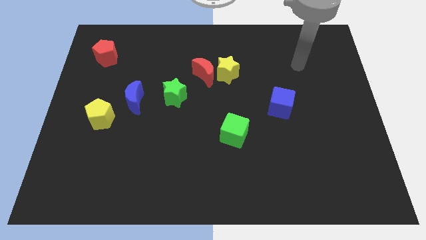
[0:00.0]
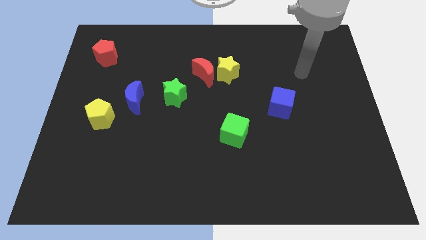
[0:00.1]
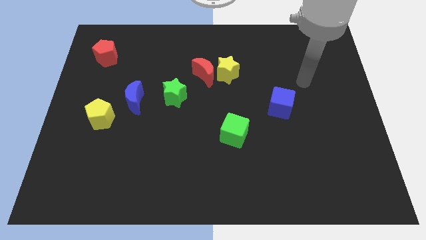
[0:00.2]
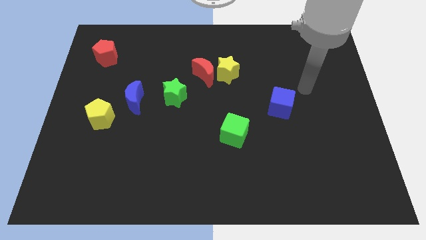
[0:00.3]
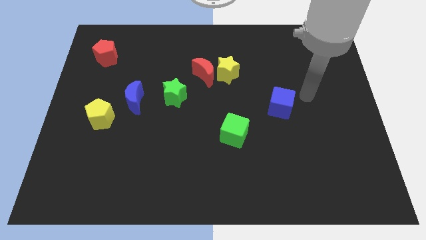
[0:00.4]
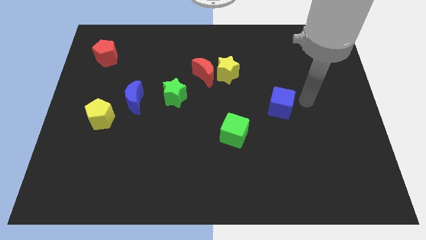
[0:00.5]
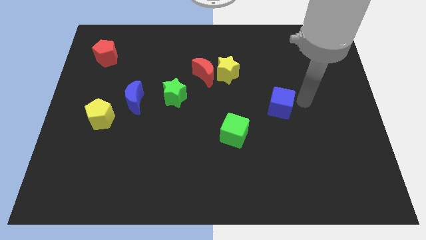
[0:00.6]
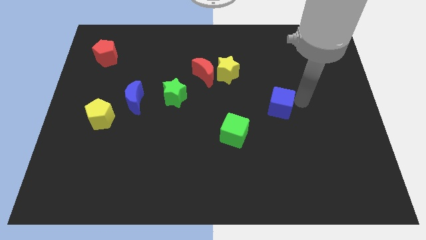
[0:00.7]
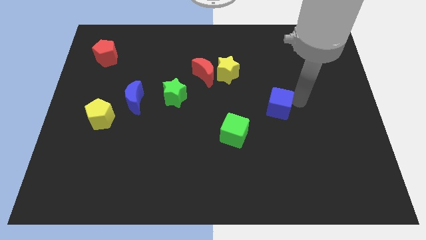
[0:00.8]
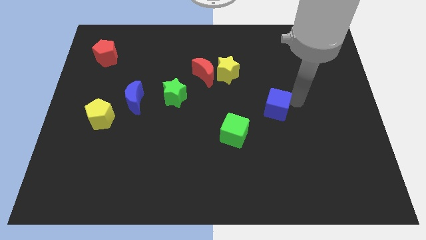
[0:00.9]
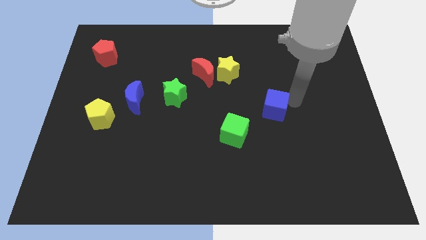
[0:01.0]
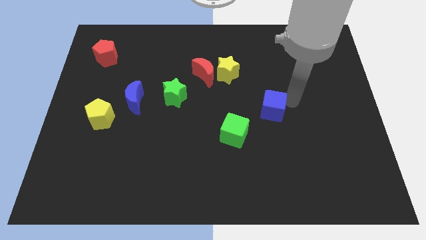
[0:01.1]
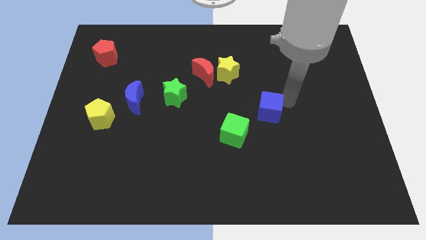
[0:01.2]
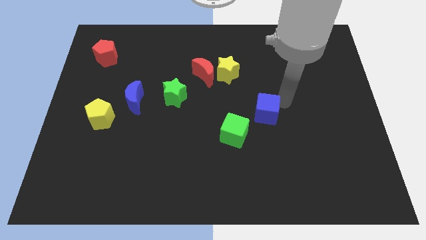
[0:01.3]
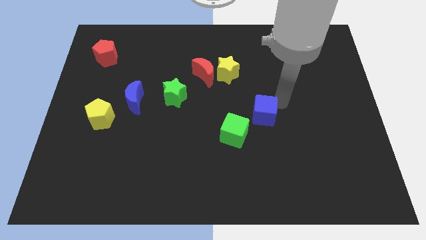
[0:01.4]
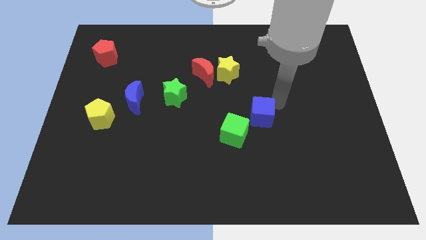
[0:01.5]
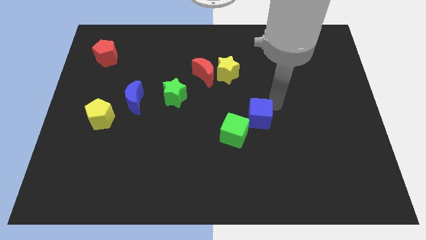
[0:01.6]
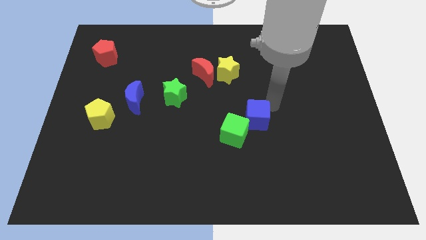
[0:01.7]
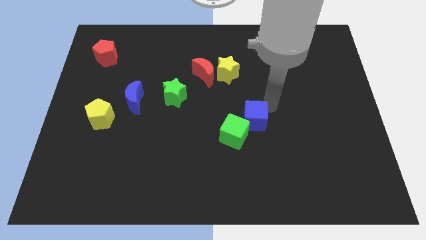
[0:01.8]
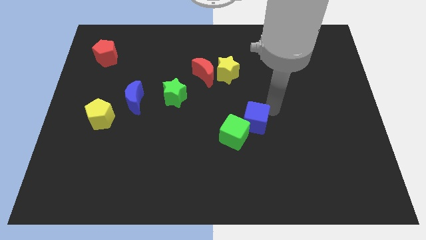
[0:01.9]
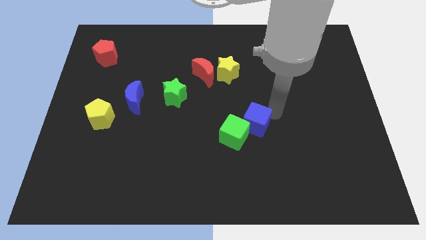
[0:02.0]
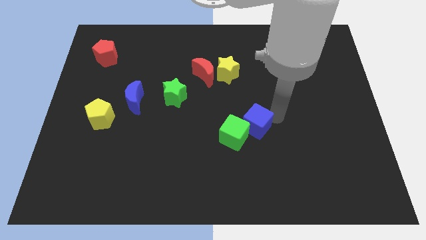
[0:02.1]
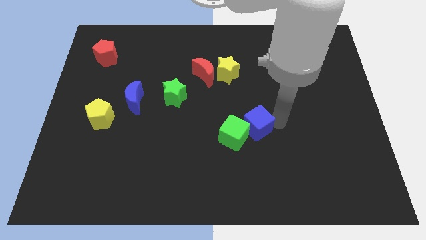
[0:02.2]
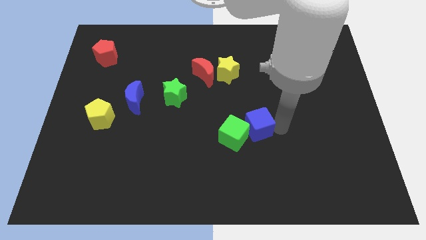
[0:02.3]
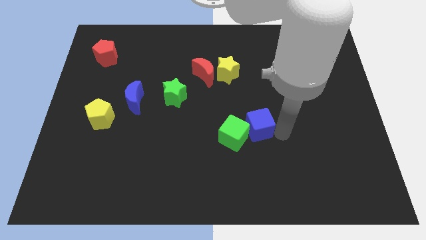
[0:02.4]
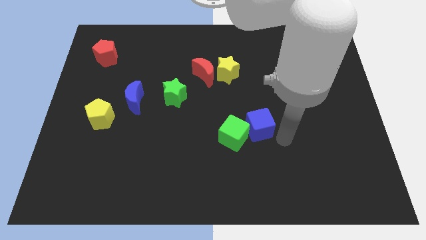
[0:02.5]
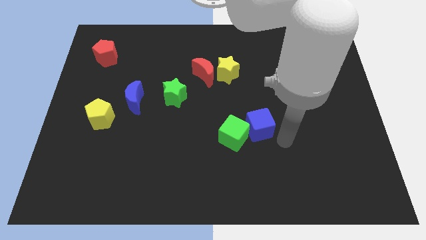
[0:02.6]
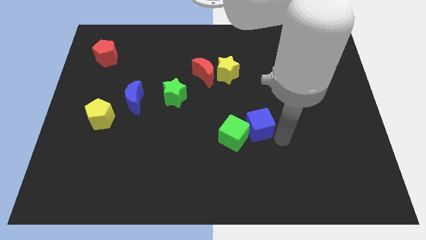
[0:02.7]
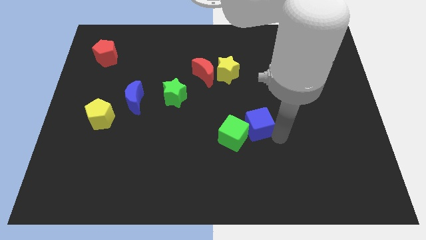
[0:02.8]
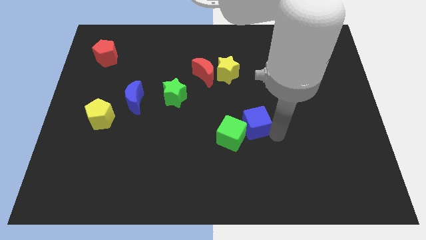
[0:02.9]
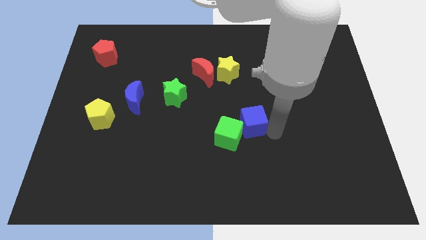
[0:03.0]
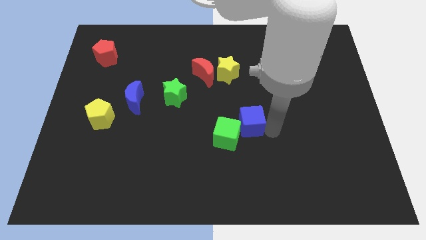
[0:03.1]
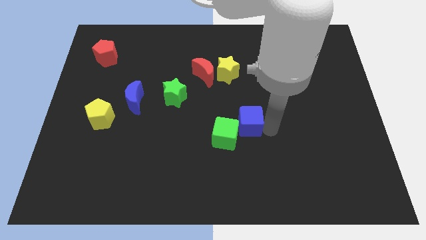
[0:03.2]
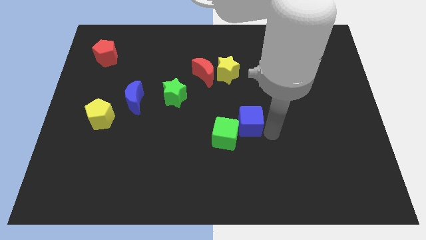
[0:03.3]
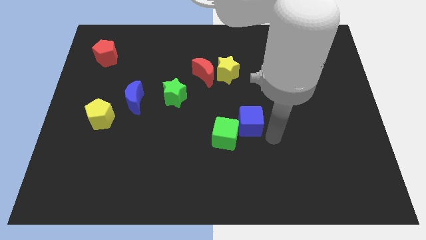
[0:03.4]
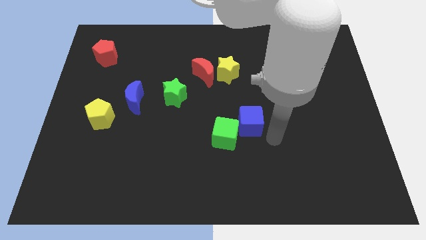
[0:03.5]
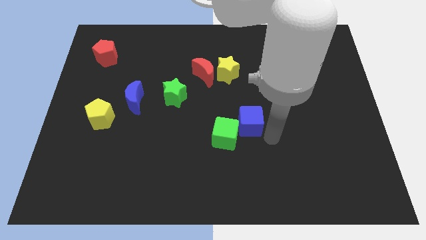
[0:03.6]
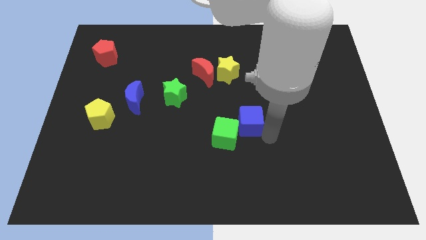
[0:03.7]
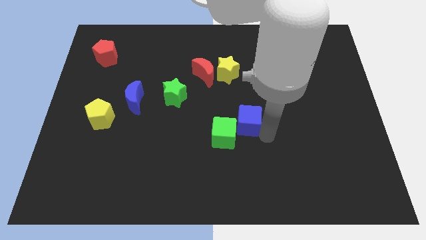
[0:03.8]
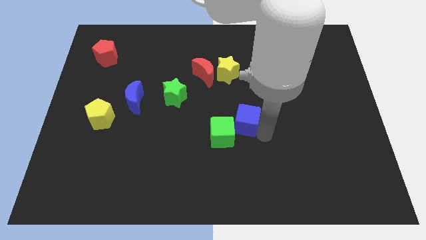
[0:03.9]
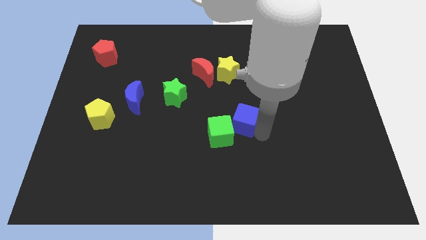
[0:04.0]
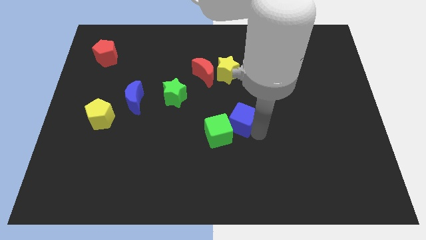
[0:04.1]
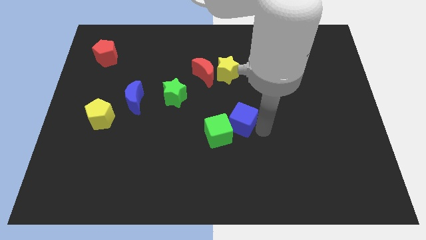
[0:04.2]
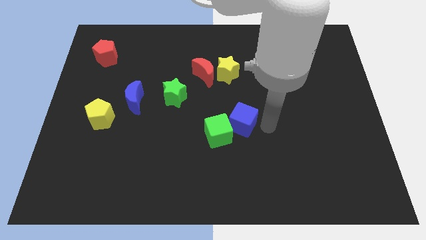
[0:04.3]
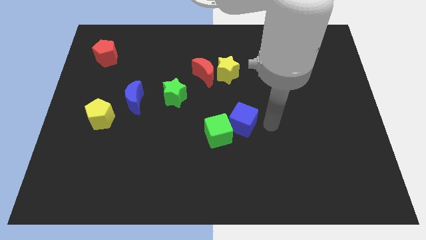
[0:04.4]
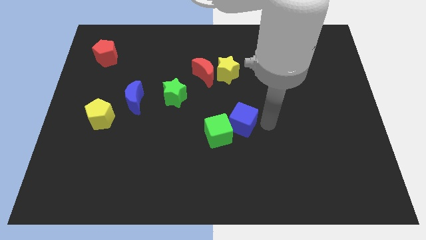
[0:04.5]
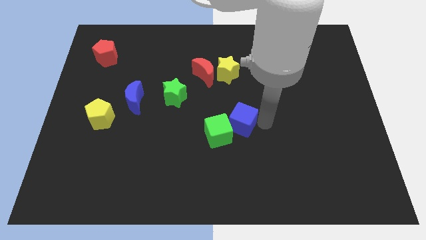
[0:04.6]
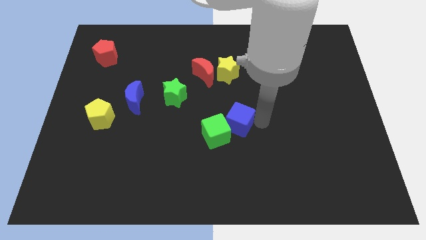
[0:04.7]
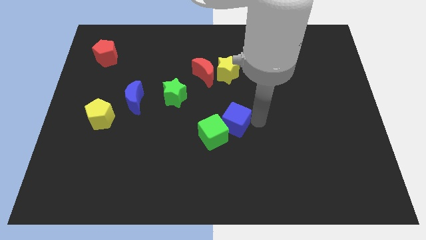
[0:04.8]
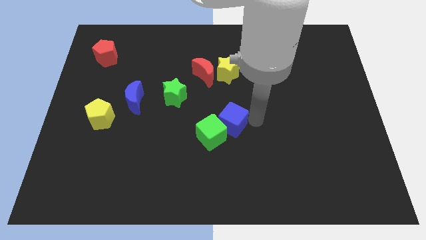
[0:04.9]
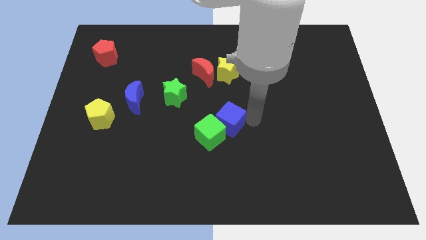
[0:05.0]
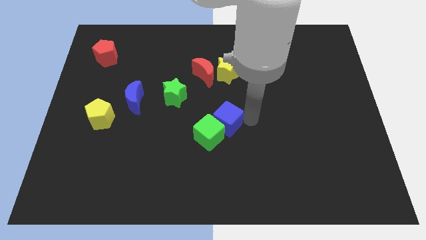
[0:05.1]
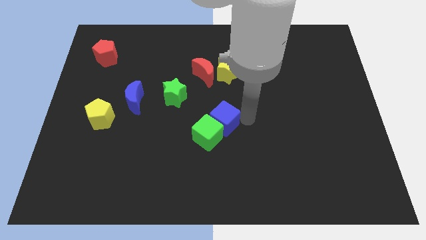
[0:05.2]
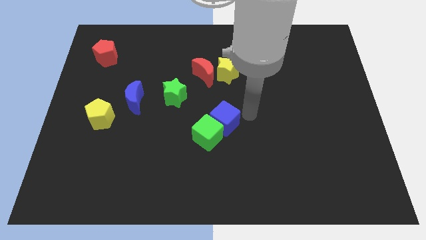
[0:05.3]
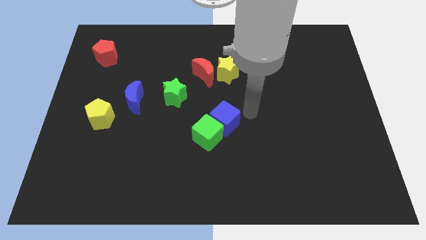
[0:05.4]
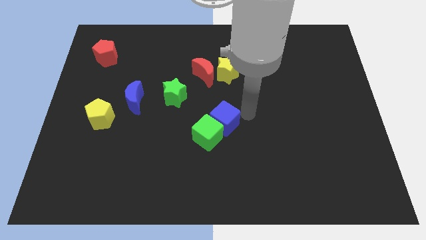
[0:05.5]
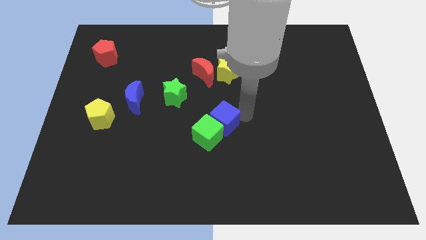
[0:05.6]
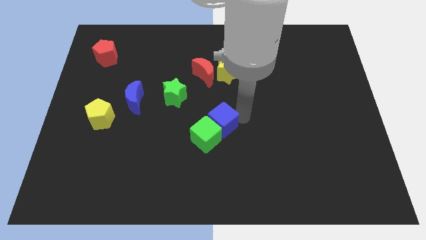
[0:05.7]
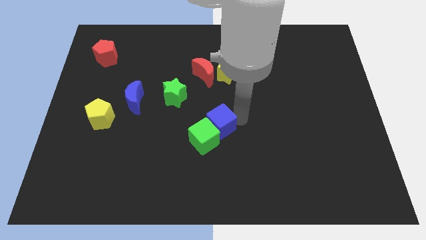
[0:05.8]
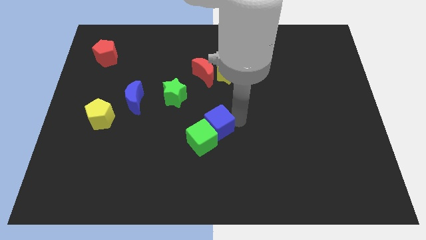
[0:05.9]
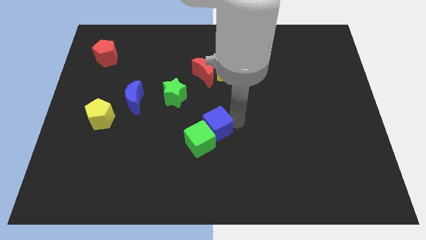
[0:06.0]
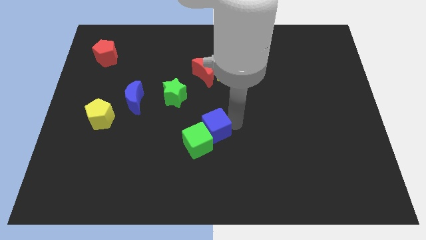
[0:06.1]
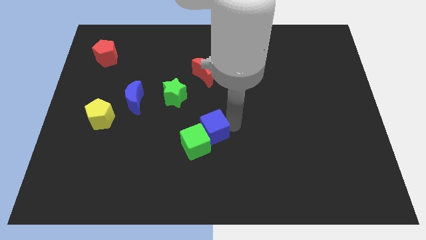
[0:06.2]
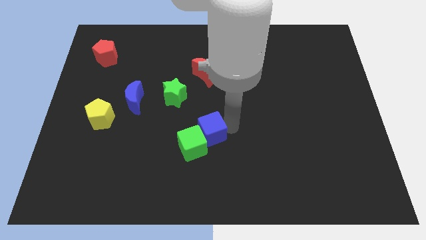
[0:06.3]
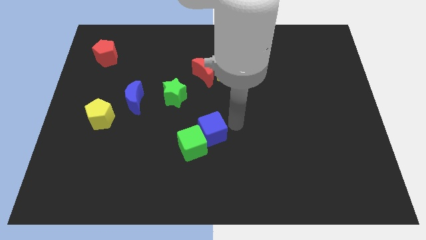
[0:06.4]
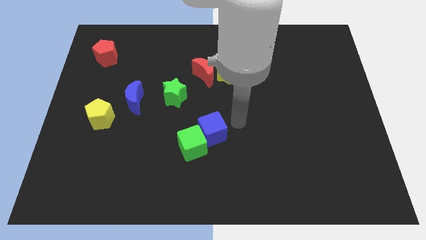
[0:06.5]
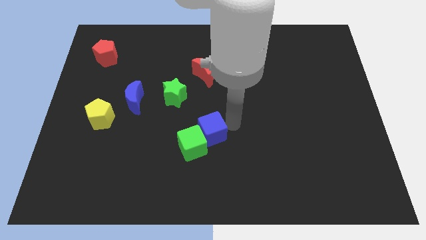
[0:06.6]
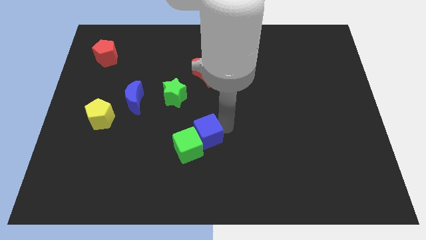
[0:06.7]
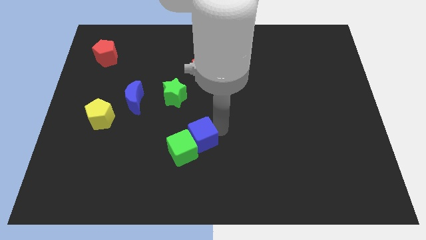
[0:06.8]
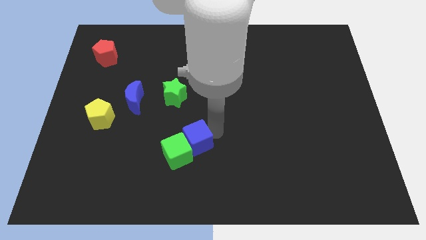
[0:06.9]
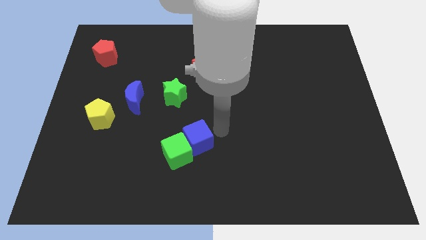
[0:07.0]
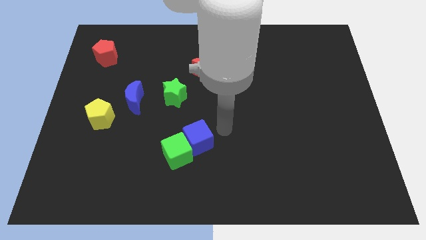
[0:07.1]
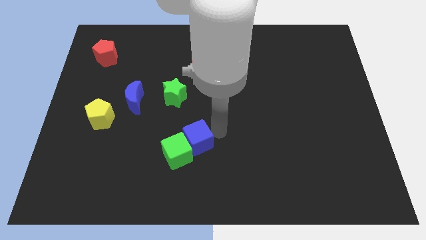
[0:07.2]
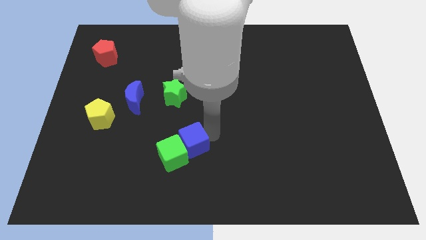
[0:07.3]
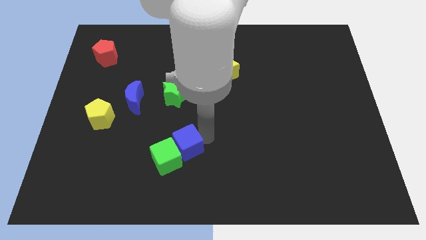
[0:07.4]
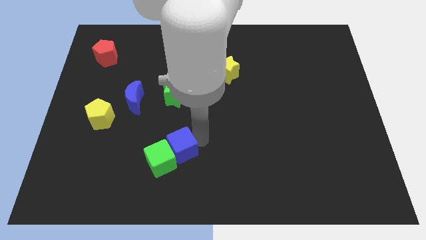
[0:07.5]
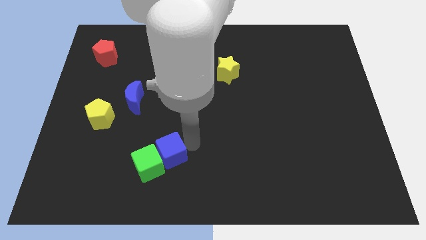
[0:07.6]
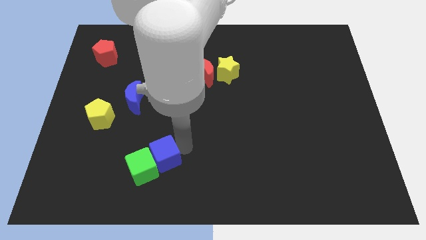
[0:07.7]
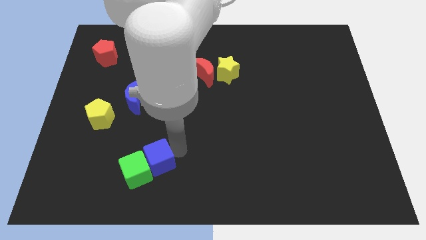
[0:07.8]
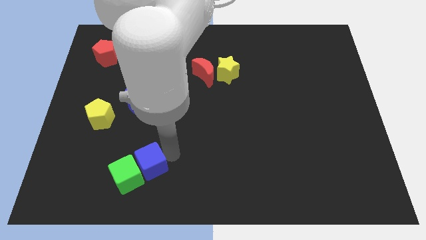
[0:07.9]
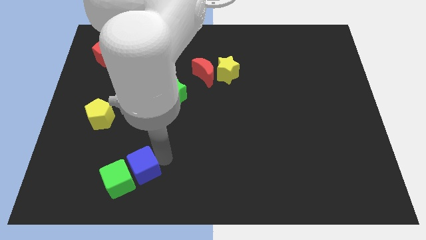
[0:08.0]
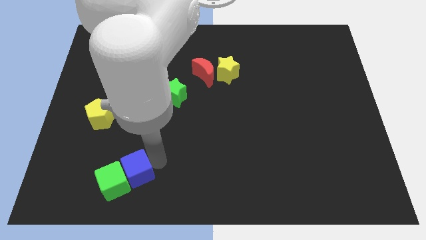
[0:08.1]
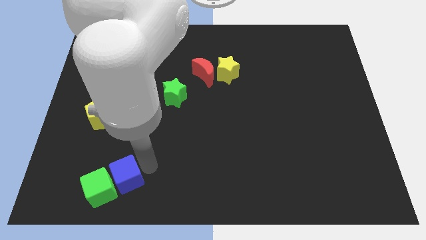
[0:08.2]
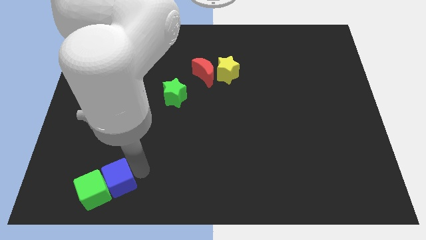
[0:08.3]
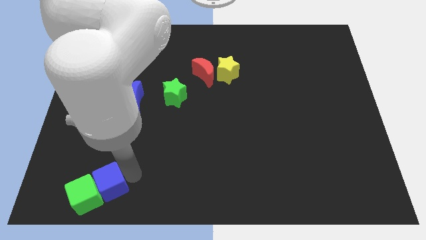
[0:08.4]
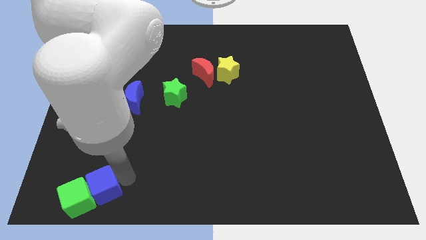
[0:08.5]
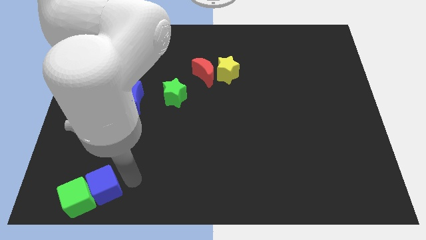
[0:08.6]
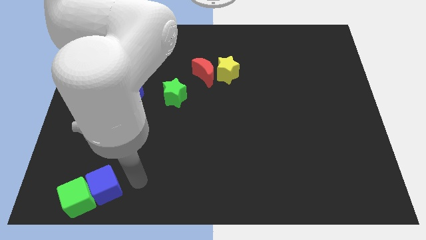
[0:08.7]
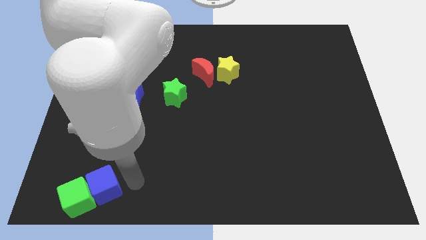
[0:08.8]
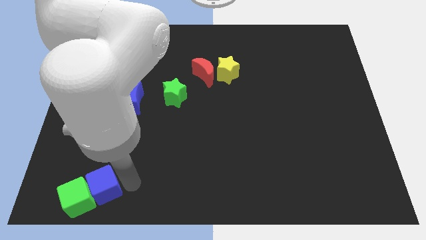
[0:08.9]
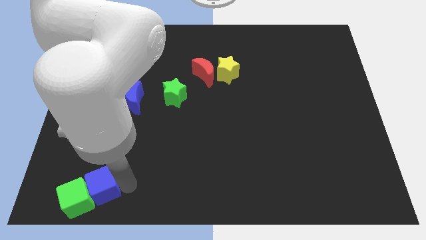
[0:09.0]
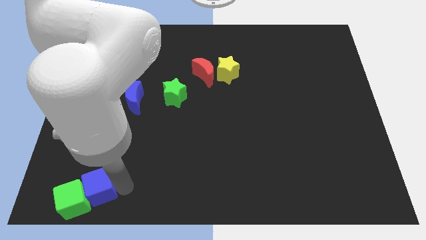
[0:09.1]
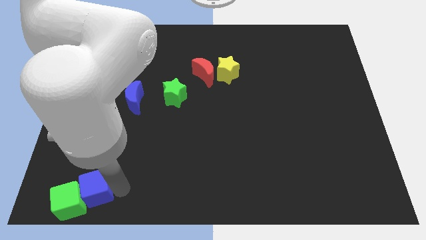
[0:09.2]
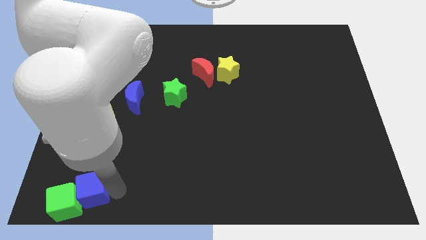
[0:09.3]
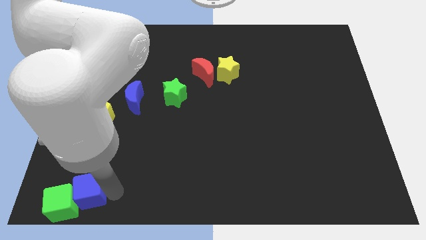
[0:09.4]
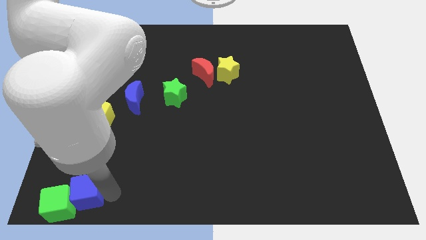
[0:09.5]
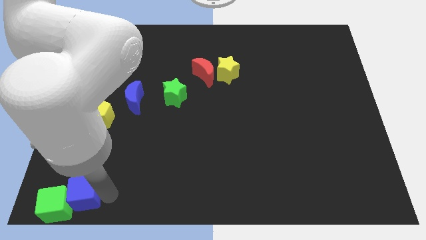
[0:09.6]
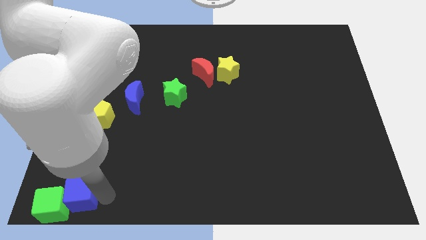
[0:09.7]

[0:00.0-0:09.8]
slide the blue cube to the bottom left corner
